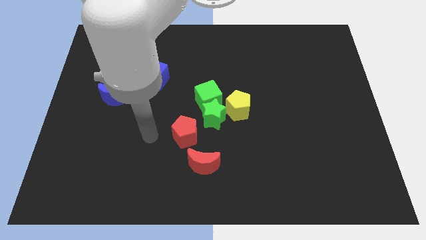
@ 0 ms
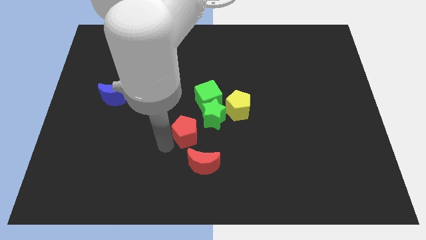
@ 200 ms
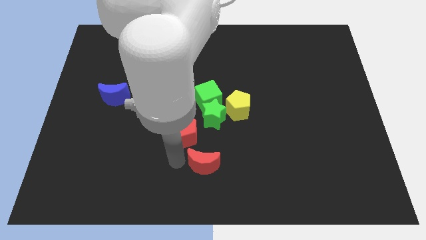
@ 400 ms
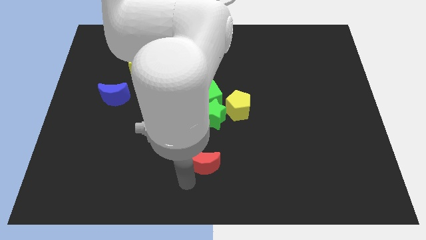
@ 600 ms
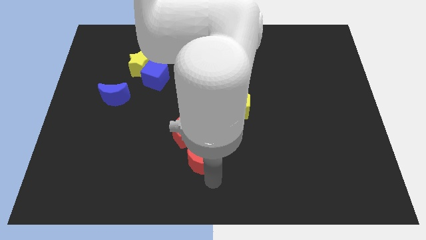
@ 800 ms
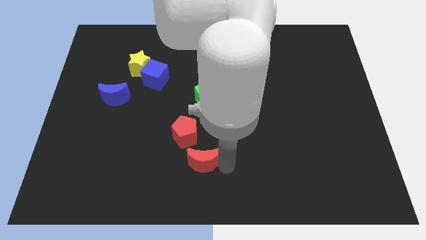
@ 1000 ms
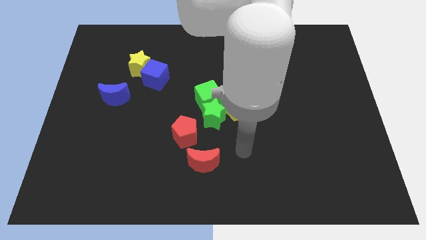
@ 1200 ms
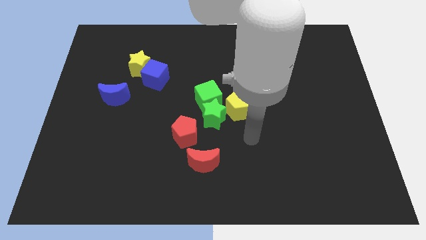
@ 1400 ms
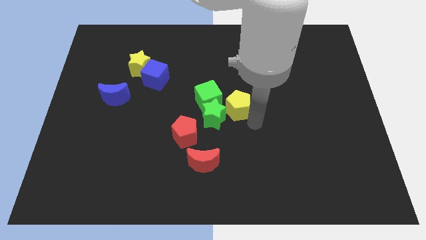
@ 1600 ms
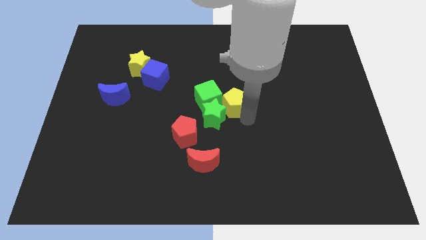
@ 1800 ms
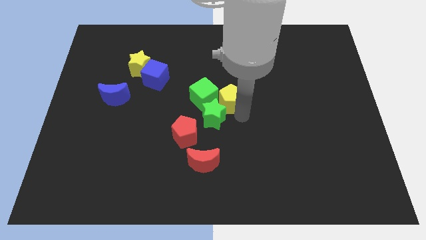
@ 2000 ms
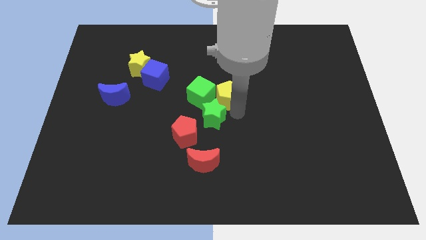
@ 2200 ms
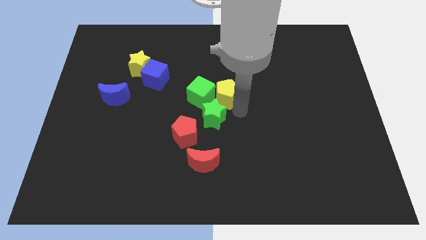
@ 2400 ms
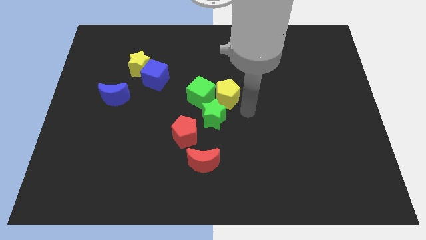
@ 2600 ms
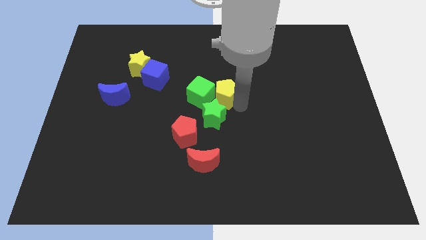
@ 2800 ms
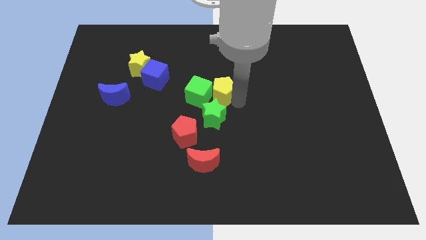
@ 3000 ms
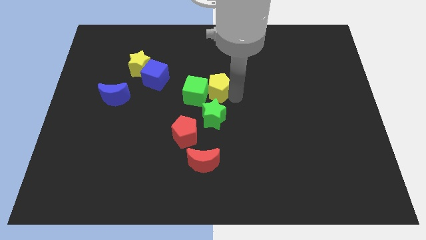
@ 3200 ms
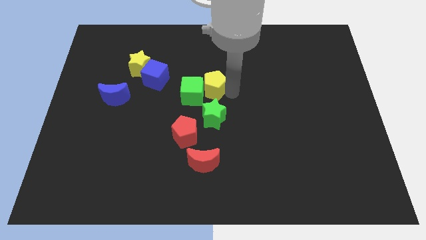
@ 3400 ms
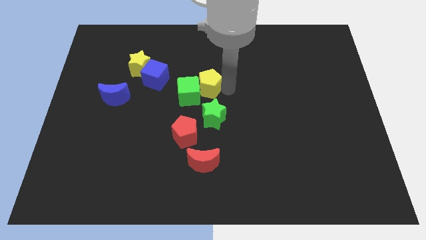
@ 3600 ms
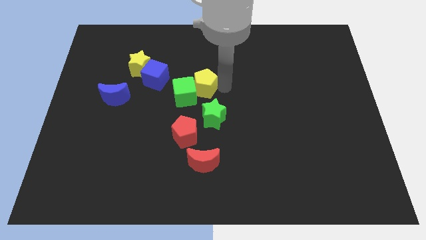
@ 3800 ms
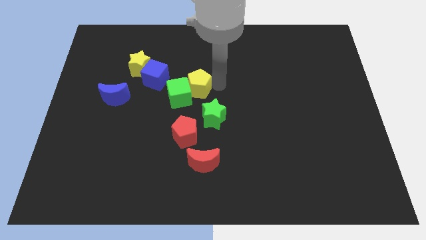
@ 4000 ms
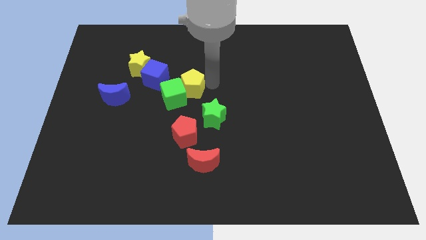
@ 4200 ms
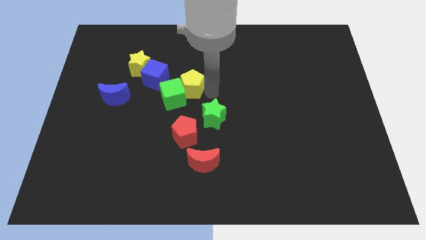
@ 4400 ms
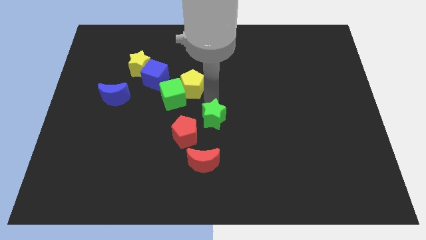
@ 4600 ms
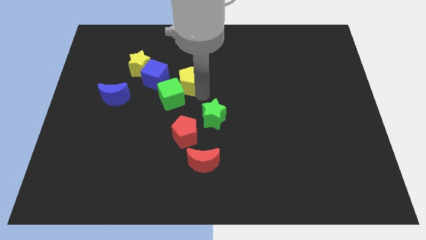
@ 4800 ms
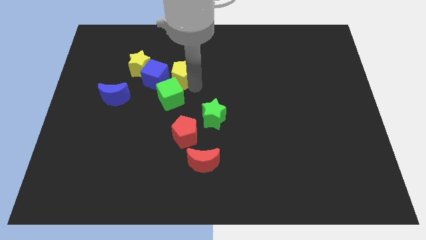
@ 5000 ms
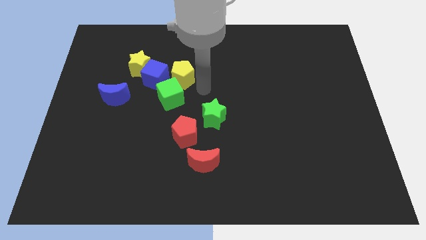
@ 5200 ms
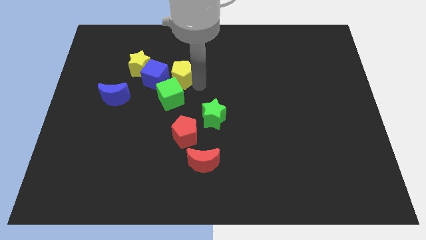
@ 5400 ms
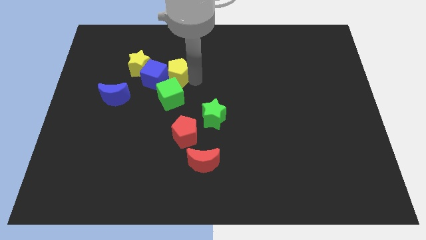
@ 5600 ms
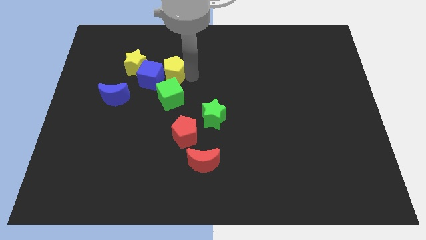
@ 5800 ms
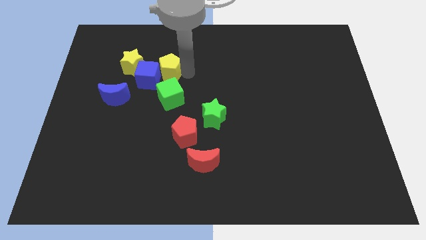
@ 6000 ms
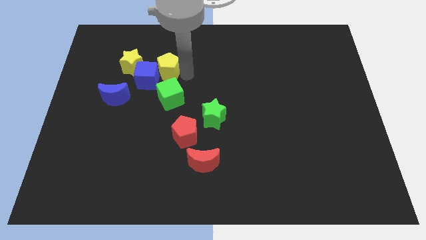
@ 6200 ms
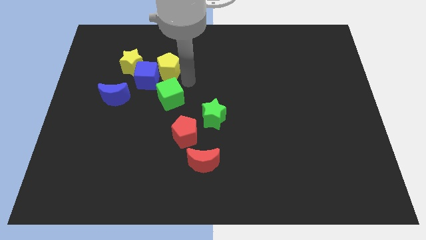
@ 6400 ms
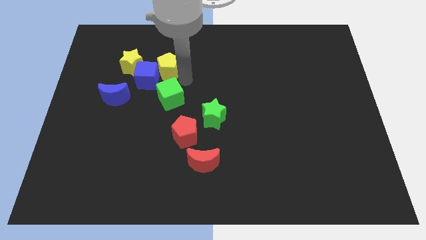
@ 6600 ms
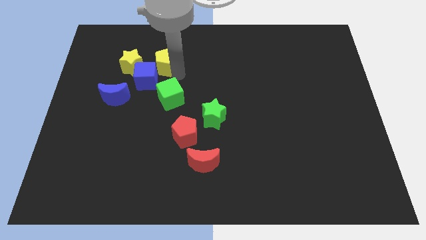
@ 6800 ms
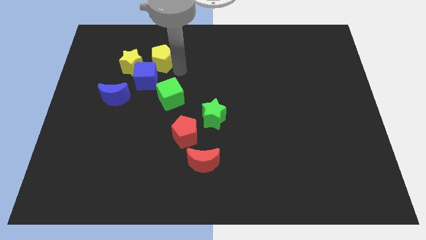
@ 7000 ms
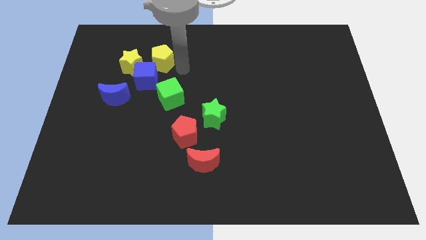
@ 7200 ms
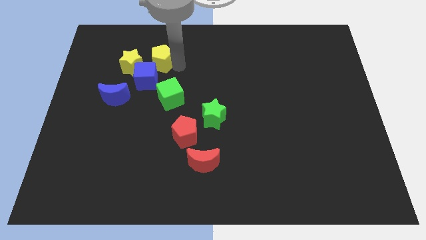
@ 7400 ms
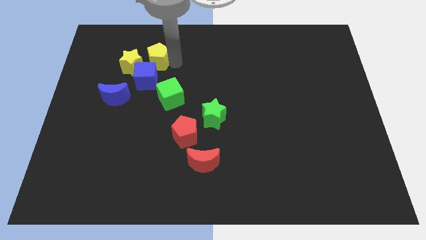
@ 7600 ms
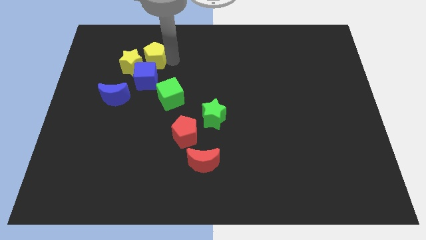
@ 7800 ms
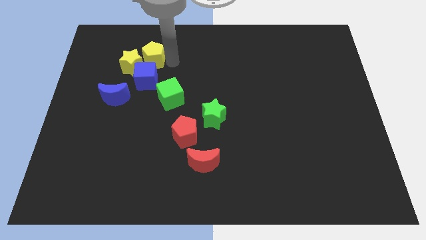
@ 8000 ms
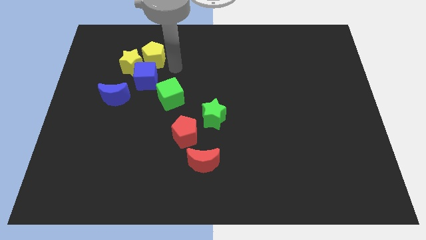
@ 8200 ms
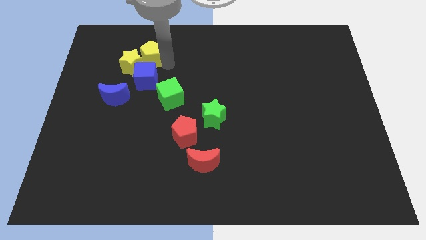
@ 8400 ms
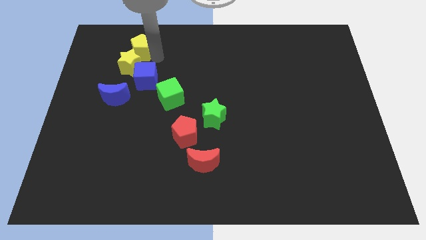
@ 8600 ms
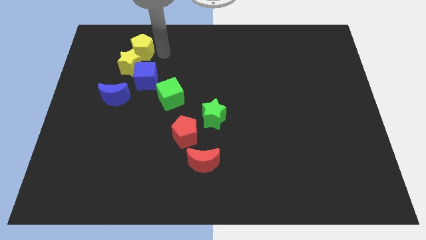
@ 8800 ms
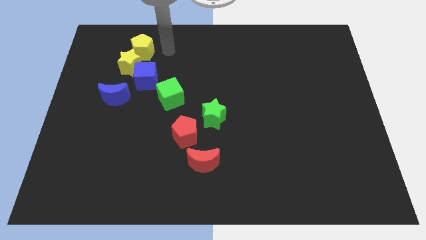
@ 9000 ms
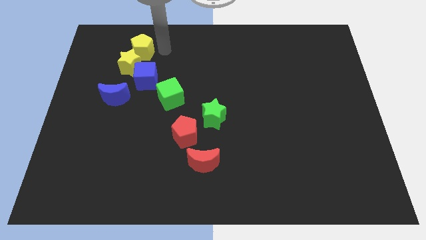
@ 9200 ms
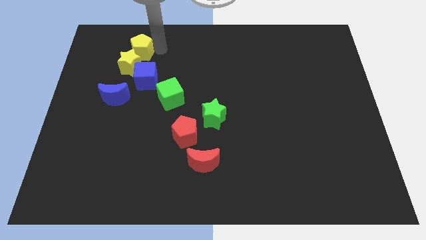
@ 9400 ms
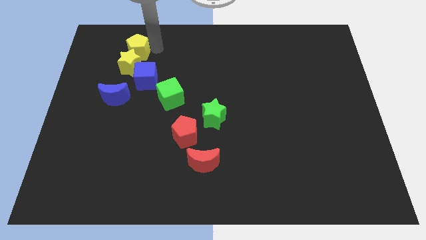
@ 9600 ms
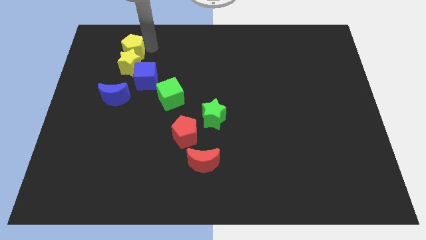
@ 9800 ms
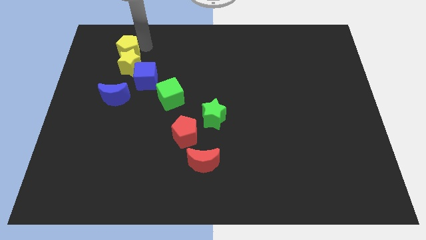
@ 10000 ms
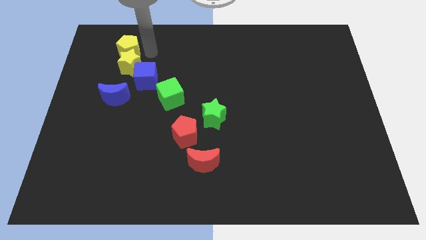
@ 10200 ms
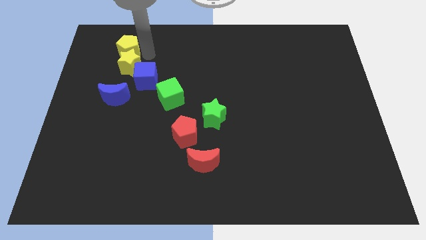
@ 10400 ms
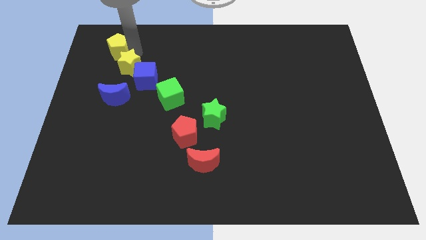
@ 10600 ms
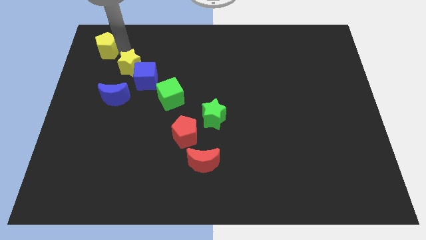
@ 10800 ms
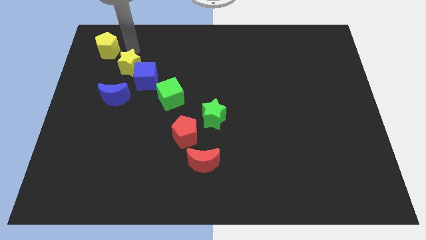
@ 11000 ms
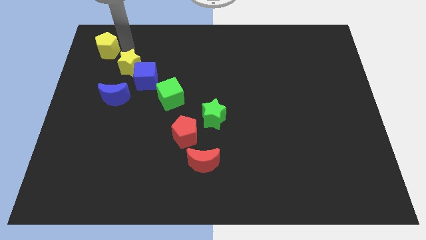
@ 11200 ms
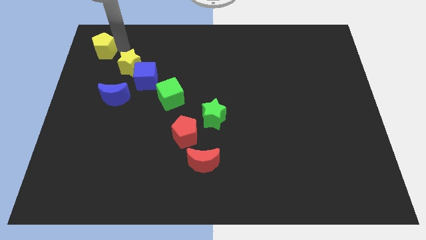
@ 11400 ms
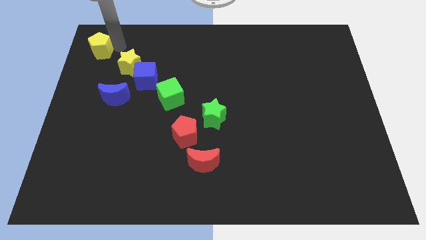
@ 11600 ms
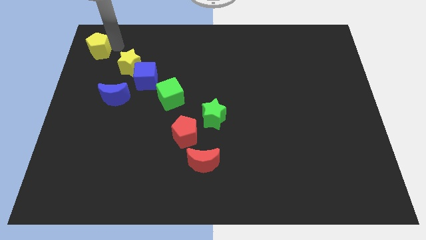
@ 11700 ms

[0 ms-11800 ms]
move the yellow pentagon to the top left
